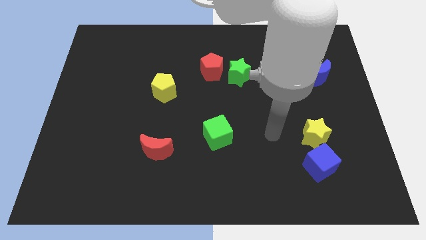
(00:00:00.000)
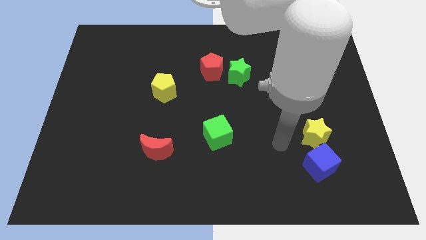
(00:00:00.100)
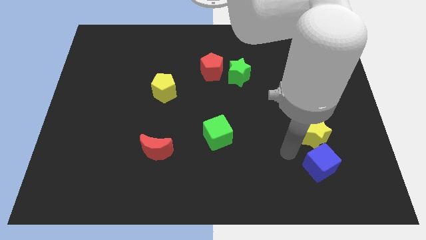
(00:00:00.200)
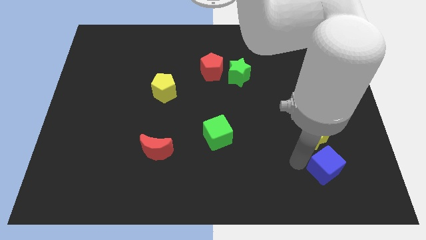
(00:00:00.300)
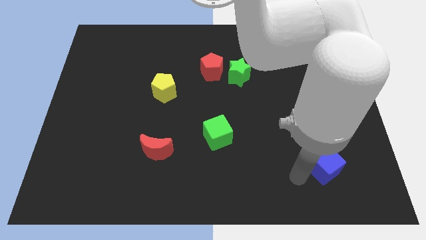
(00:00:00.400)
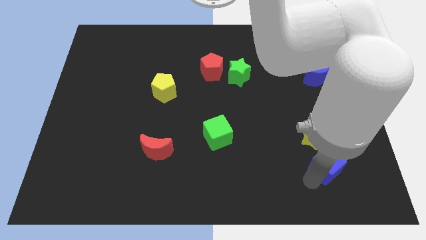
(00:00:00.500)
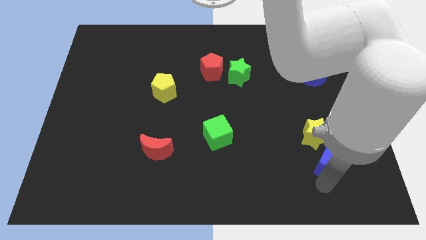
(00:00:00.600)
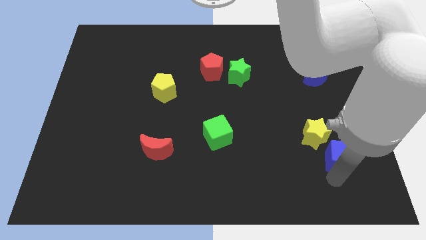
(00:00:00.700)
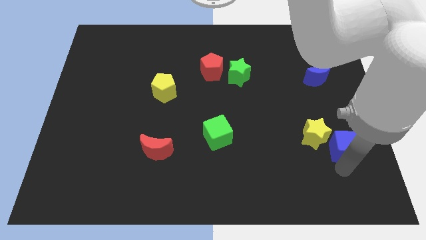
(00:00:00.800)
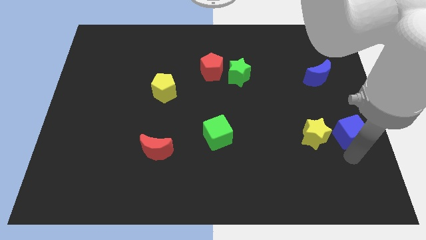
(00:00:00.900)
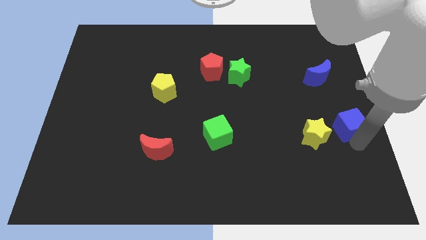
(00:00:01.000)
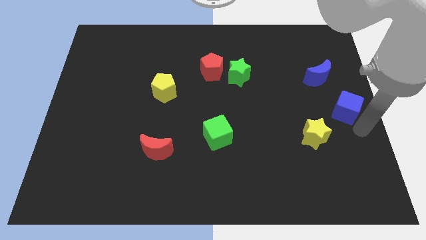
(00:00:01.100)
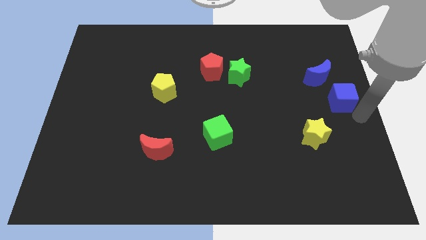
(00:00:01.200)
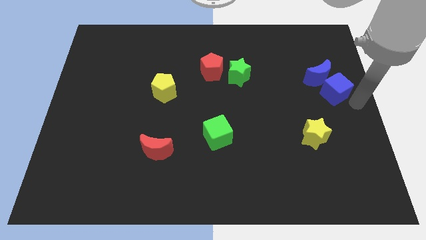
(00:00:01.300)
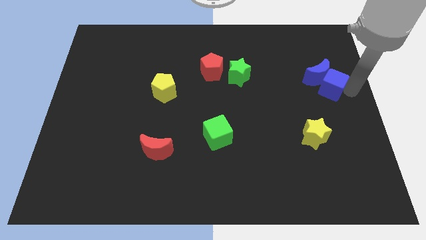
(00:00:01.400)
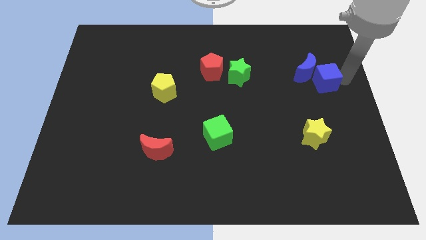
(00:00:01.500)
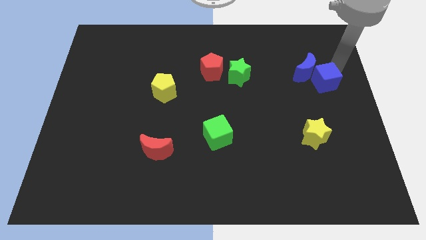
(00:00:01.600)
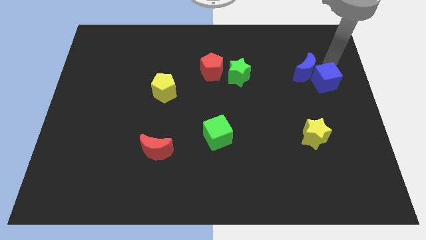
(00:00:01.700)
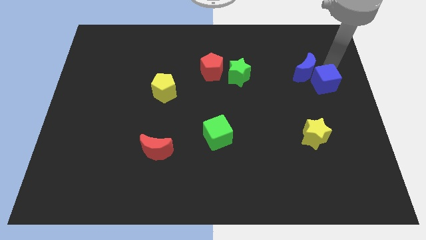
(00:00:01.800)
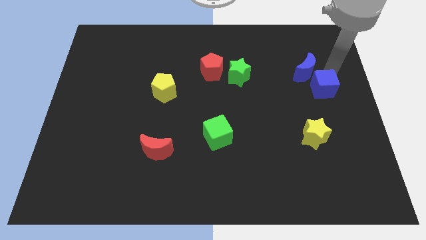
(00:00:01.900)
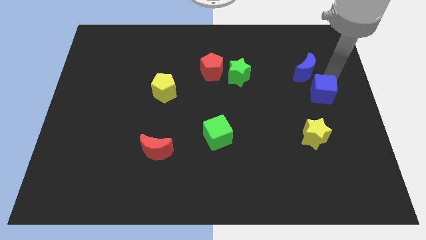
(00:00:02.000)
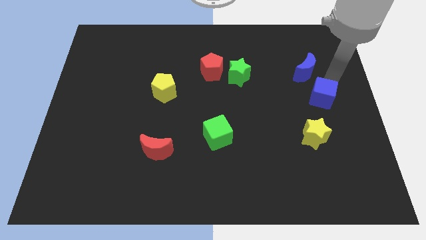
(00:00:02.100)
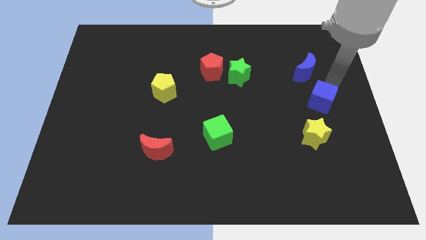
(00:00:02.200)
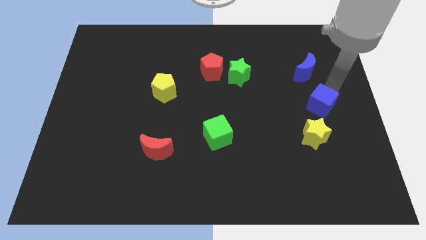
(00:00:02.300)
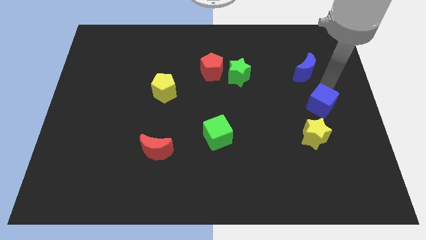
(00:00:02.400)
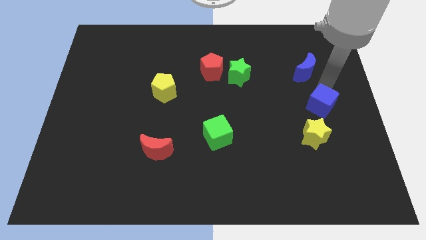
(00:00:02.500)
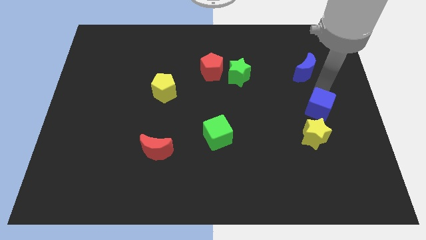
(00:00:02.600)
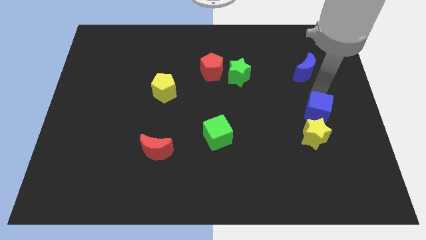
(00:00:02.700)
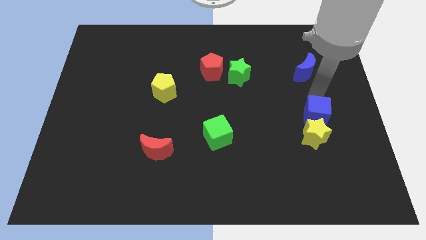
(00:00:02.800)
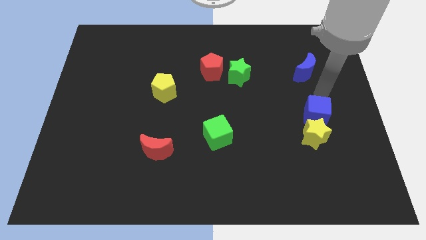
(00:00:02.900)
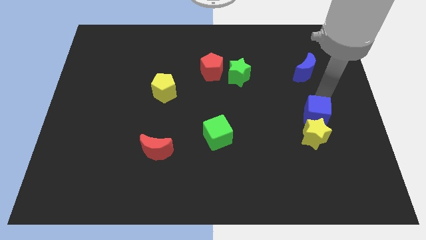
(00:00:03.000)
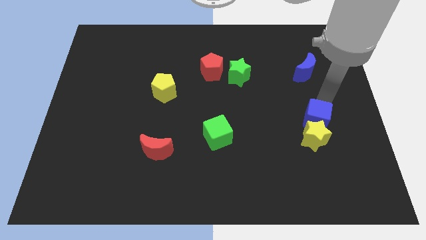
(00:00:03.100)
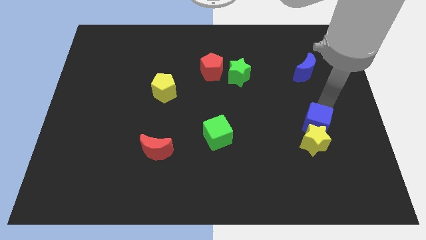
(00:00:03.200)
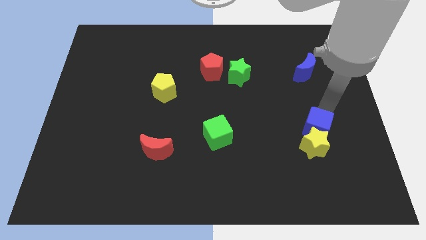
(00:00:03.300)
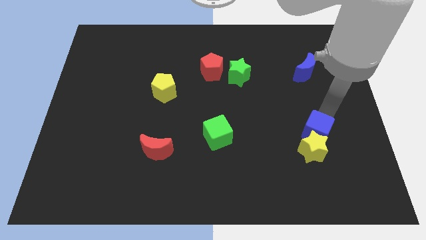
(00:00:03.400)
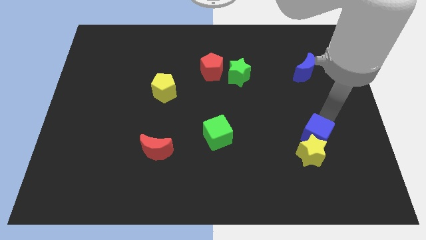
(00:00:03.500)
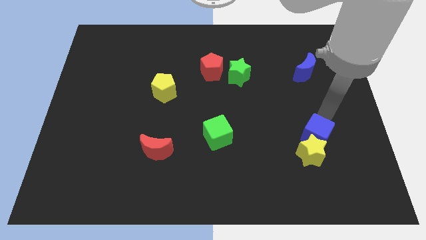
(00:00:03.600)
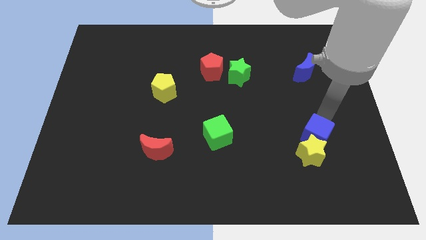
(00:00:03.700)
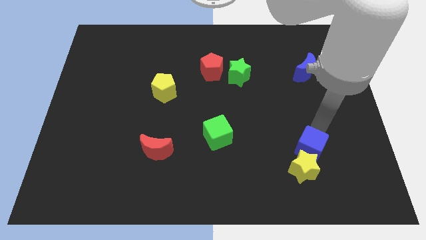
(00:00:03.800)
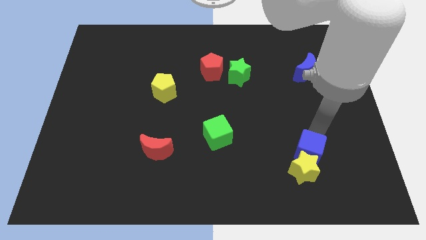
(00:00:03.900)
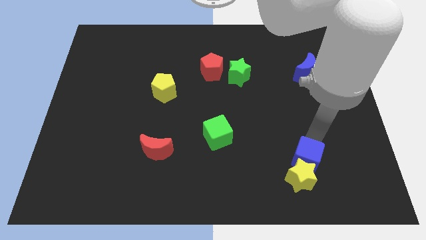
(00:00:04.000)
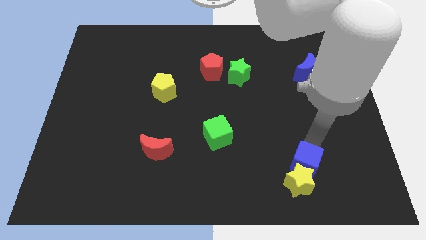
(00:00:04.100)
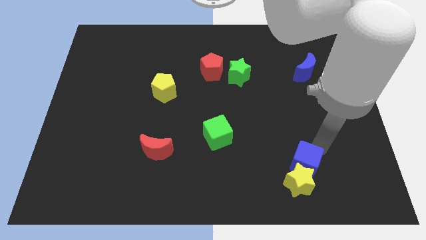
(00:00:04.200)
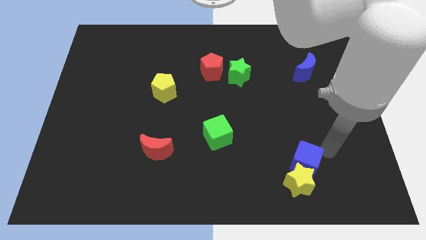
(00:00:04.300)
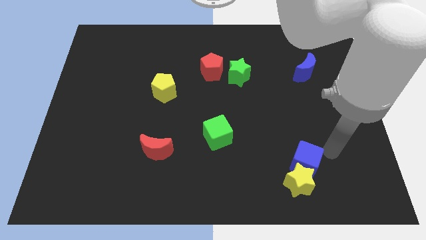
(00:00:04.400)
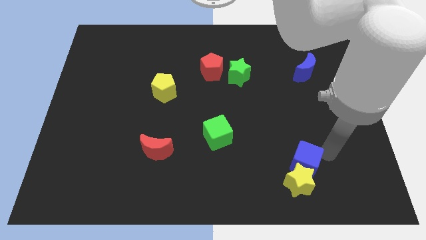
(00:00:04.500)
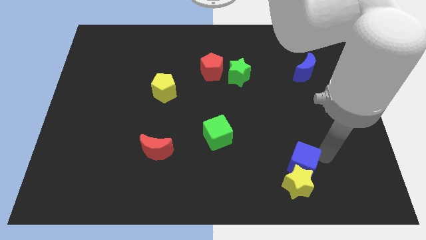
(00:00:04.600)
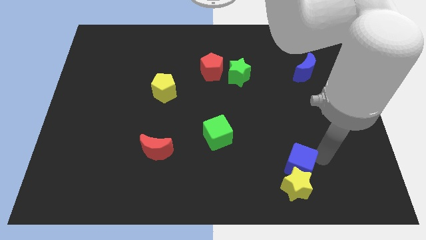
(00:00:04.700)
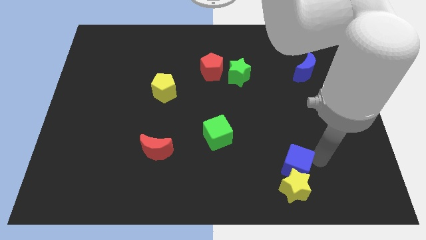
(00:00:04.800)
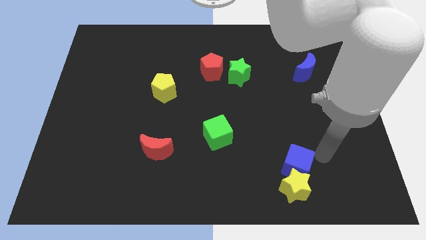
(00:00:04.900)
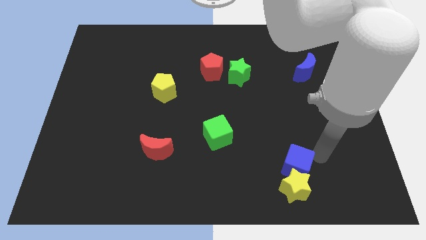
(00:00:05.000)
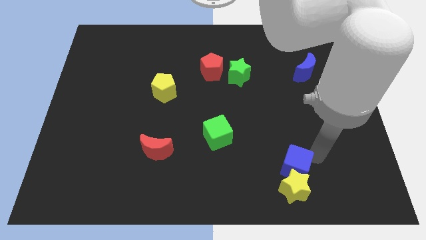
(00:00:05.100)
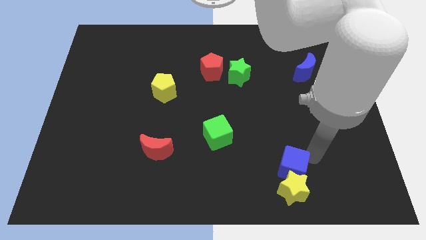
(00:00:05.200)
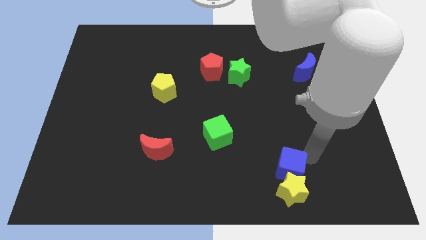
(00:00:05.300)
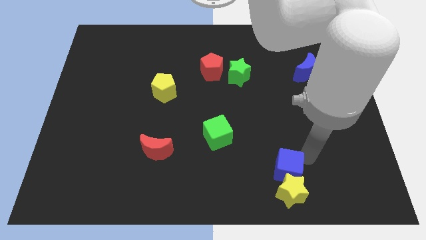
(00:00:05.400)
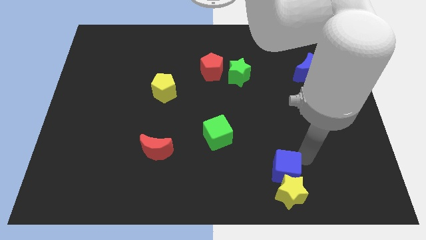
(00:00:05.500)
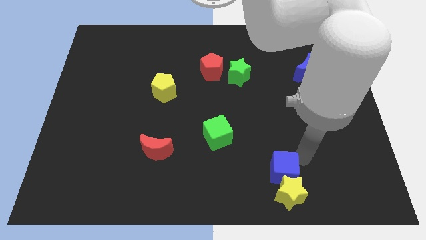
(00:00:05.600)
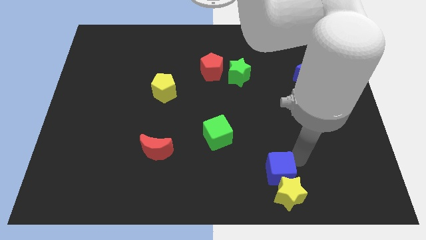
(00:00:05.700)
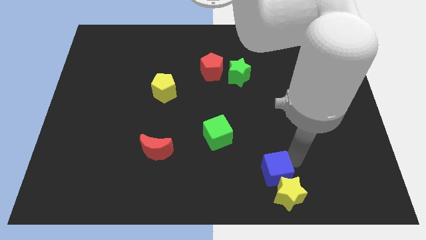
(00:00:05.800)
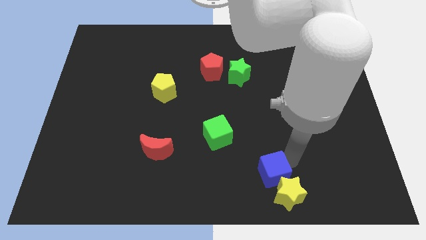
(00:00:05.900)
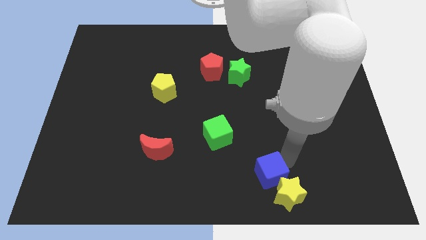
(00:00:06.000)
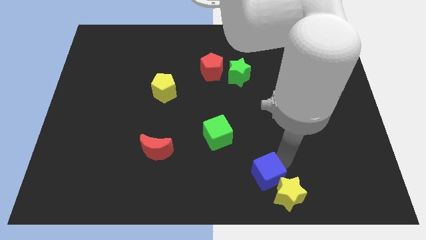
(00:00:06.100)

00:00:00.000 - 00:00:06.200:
push the blue cube to the bottom side

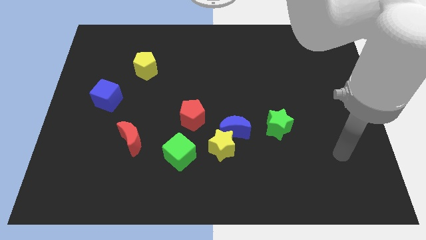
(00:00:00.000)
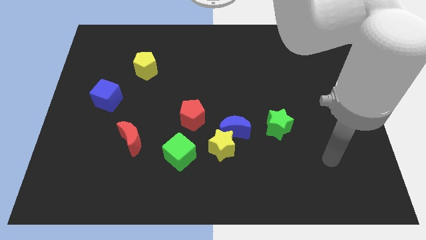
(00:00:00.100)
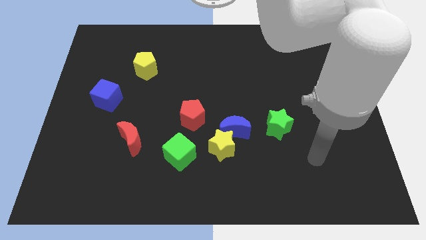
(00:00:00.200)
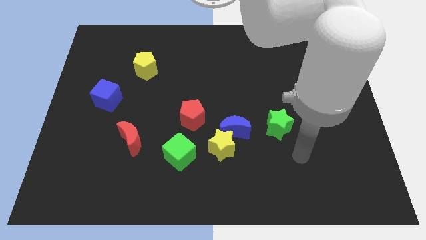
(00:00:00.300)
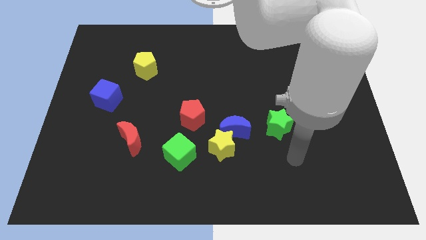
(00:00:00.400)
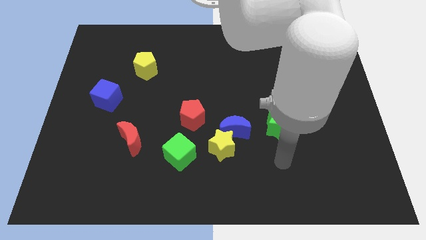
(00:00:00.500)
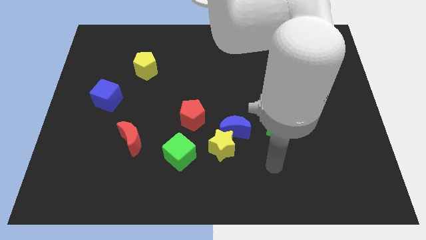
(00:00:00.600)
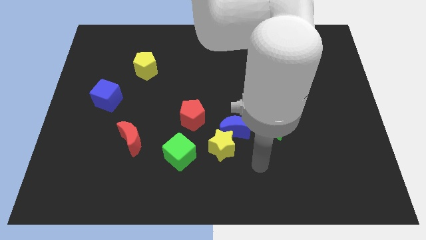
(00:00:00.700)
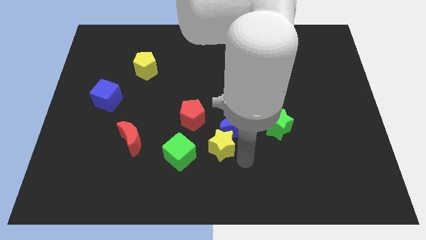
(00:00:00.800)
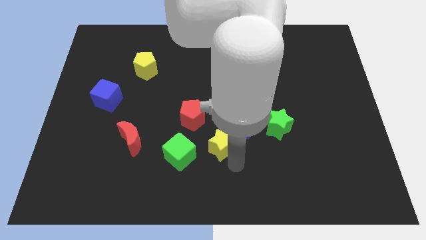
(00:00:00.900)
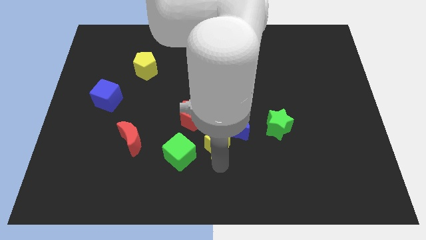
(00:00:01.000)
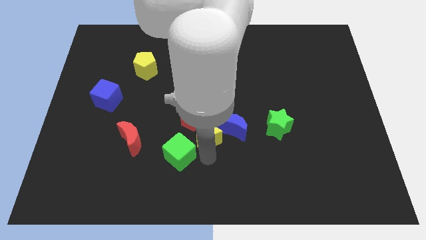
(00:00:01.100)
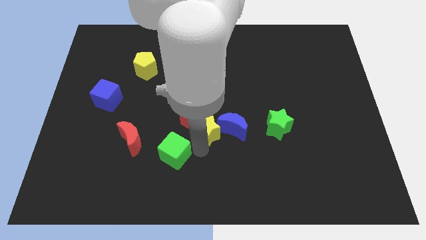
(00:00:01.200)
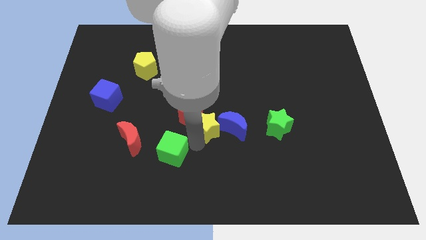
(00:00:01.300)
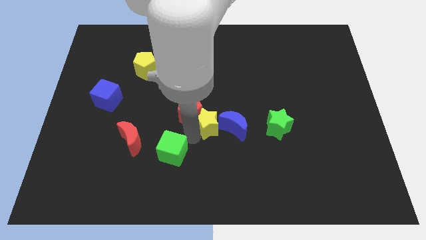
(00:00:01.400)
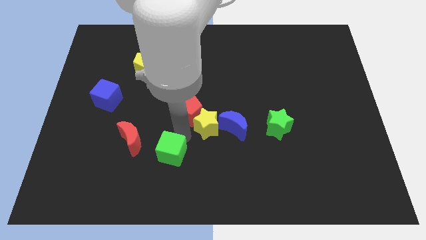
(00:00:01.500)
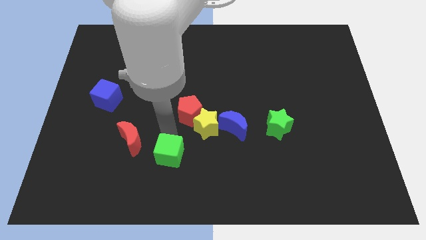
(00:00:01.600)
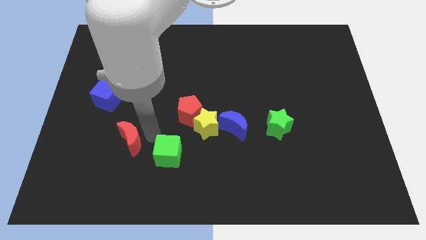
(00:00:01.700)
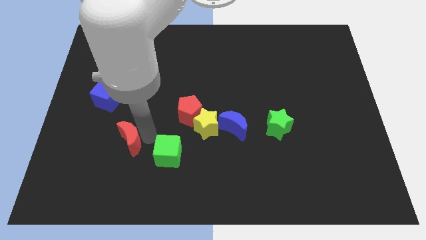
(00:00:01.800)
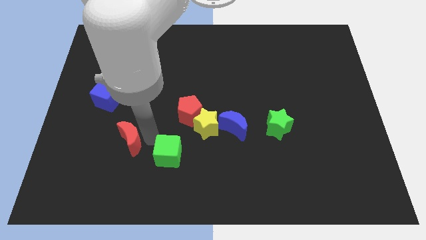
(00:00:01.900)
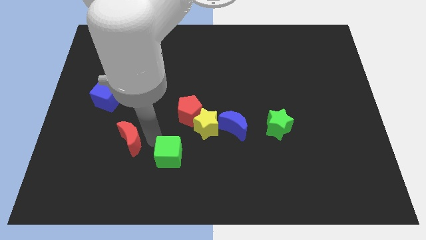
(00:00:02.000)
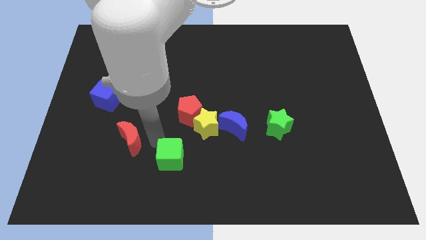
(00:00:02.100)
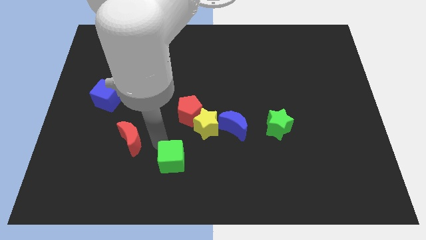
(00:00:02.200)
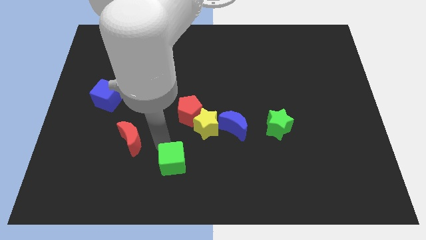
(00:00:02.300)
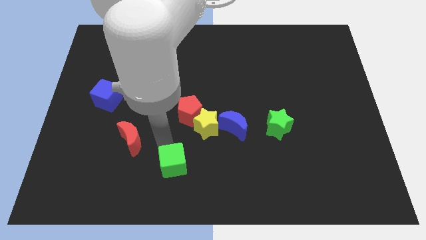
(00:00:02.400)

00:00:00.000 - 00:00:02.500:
put the green cube to the bottom
